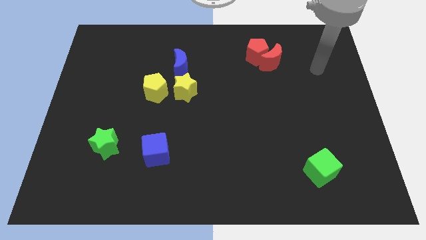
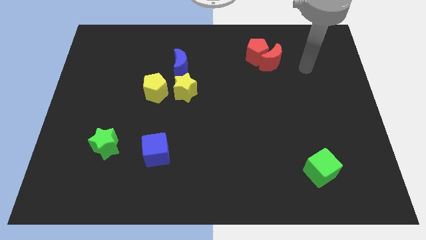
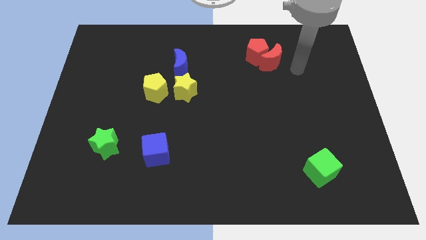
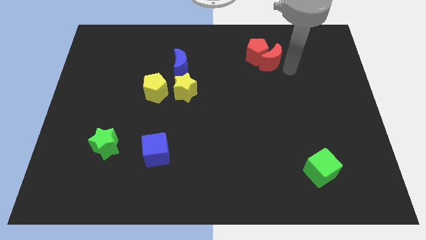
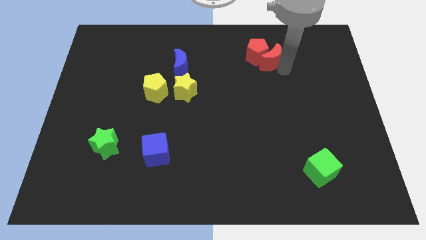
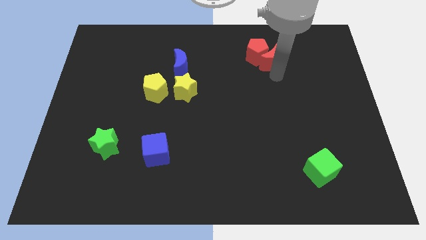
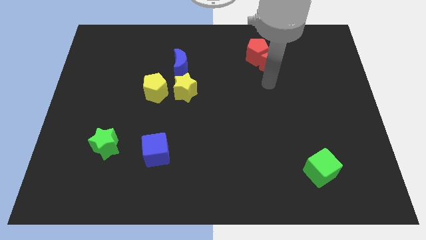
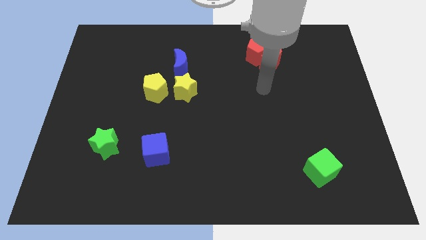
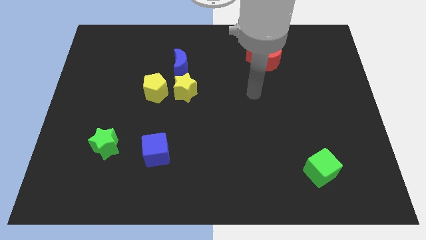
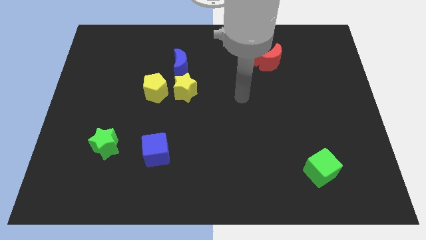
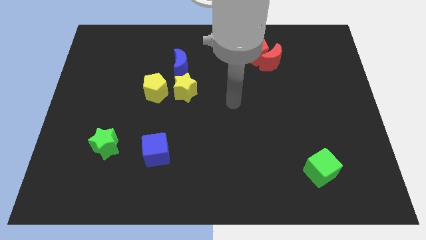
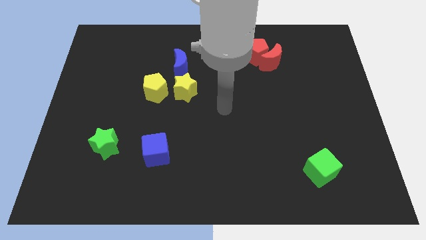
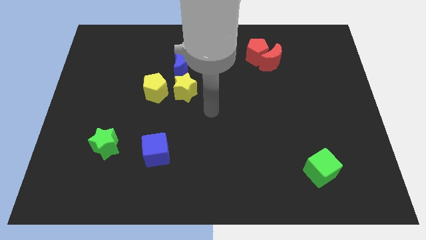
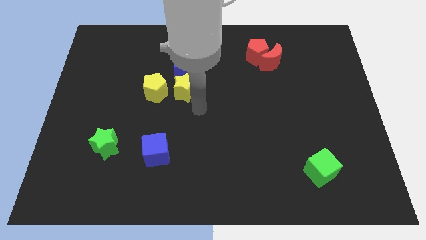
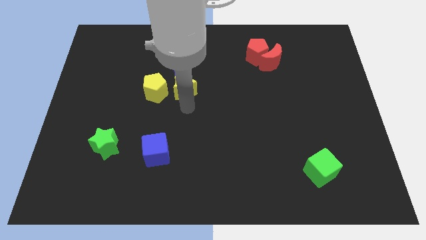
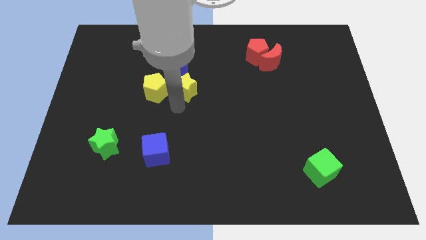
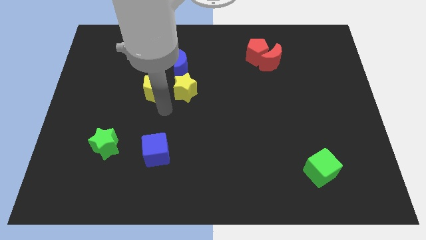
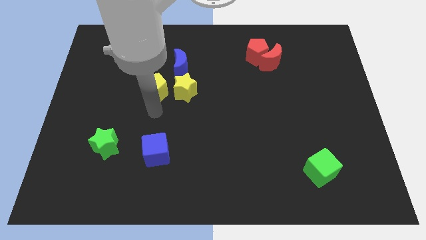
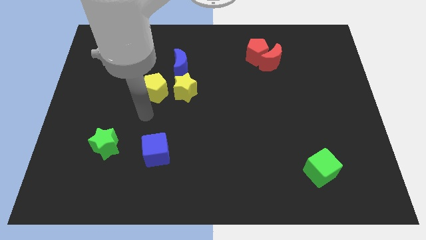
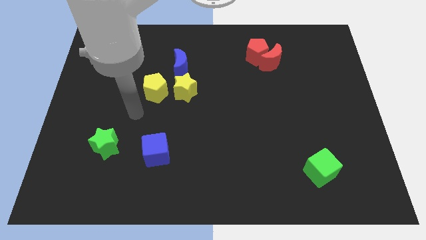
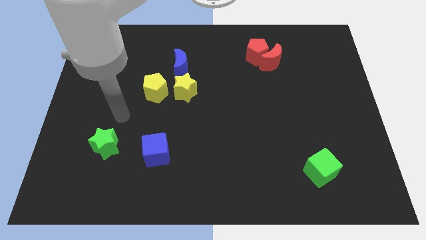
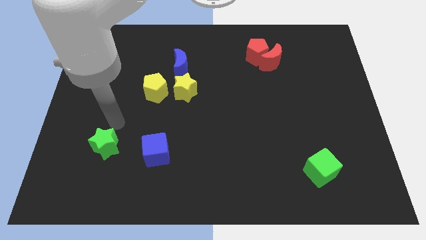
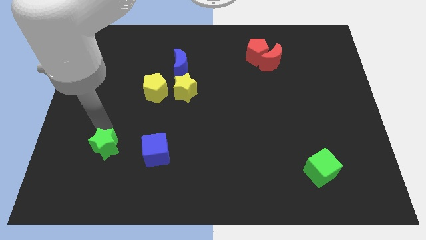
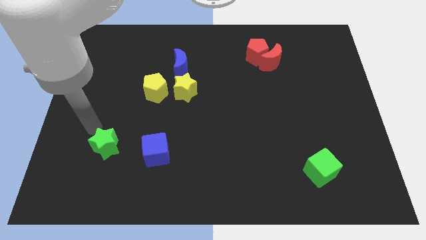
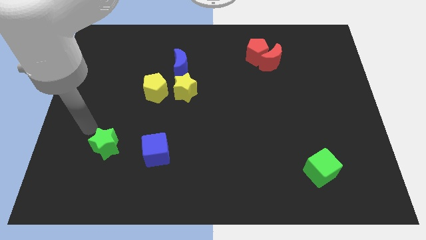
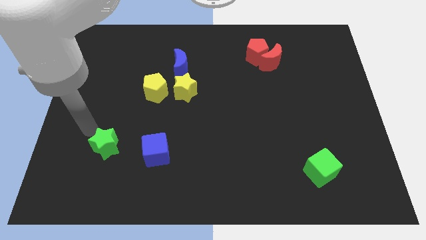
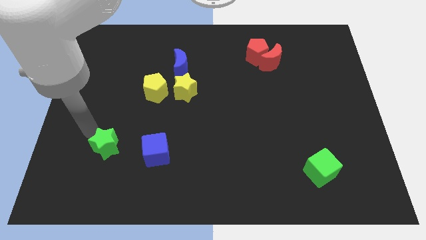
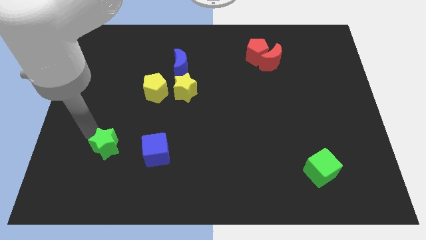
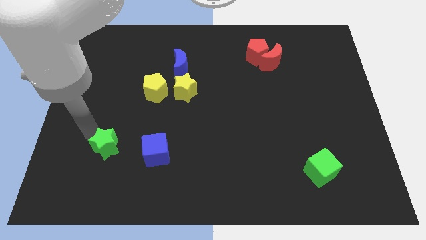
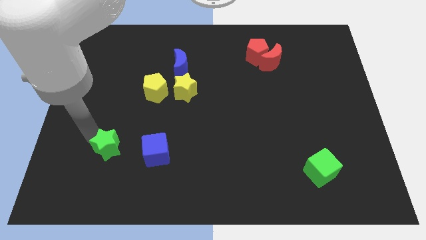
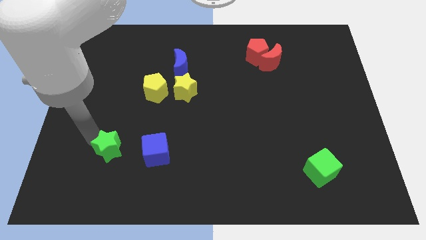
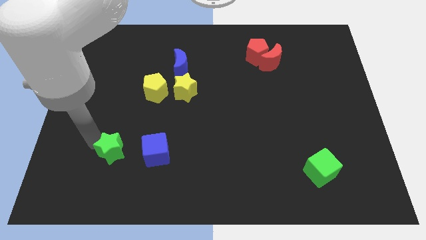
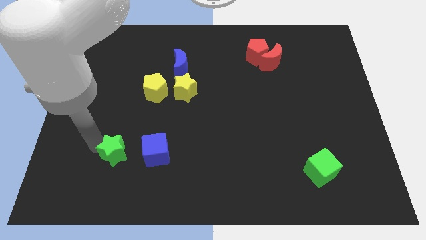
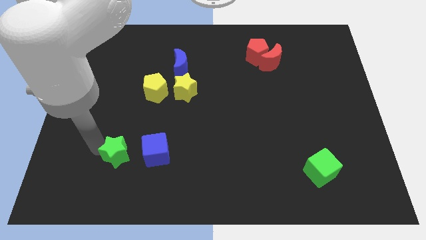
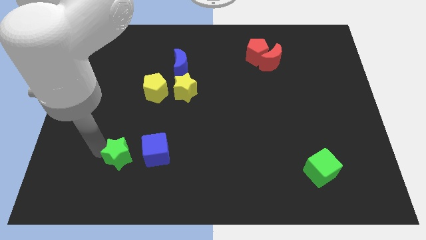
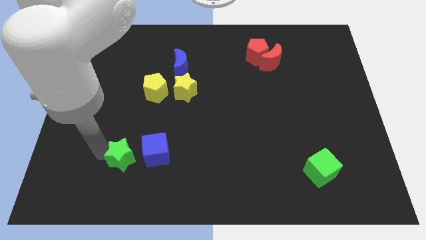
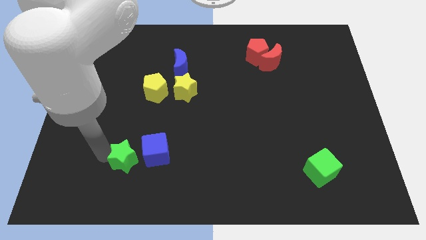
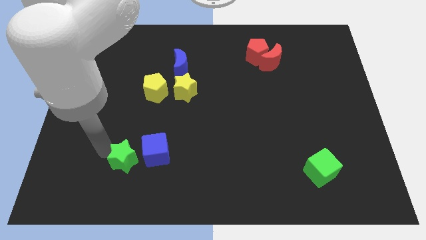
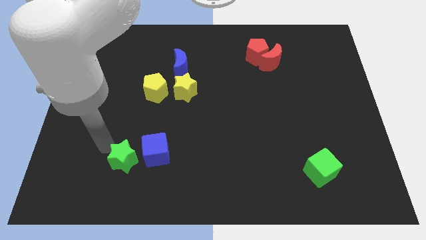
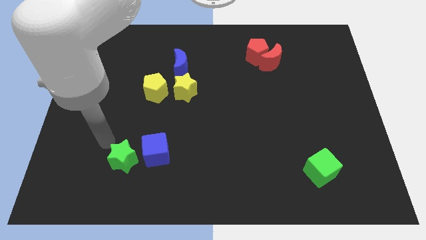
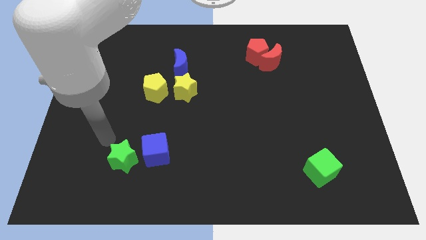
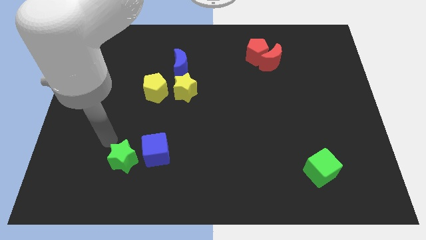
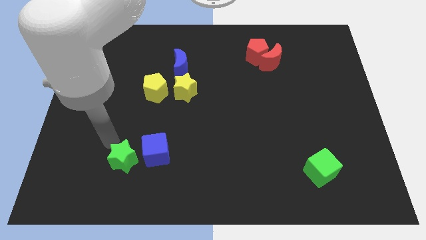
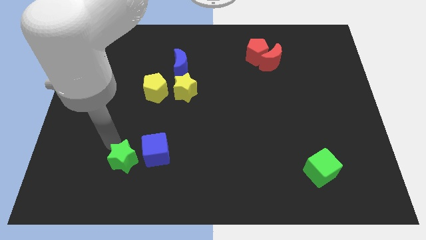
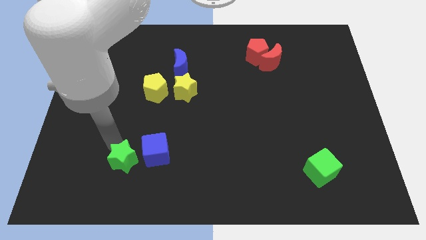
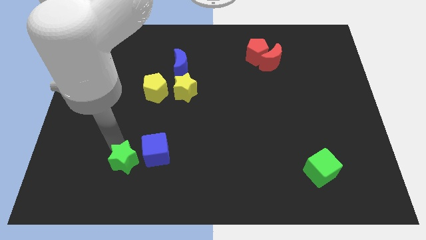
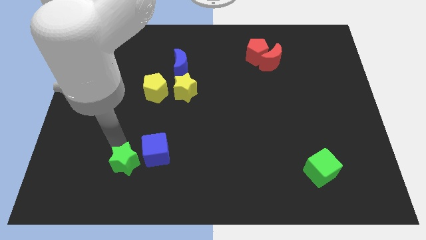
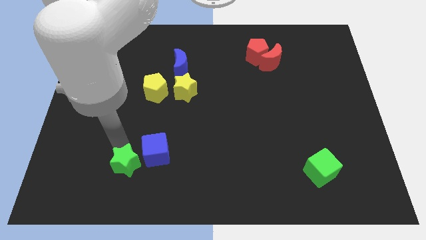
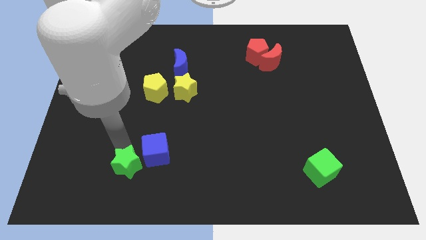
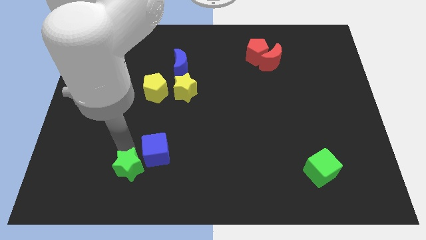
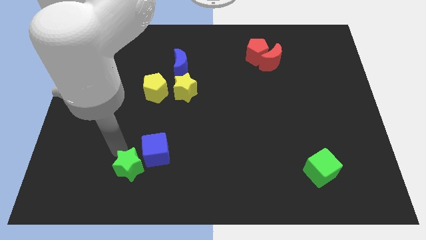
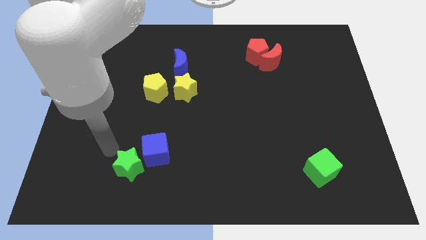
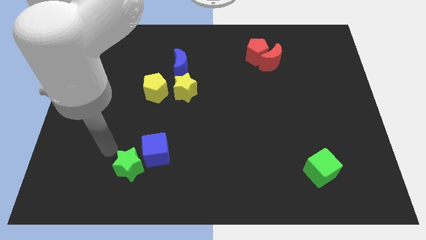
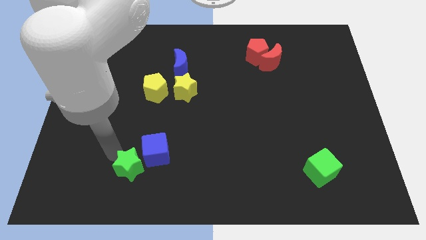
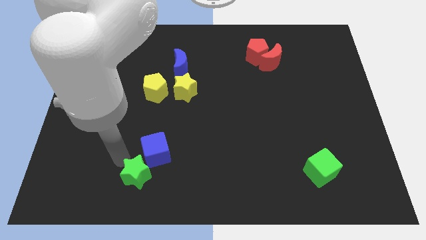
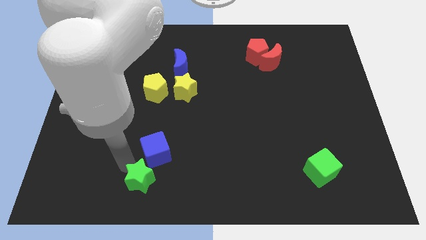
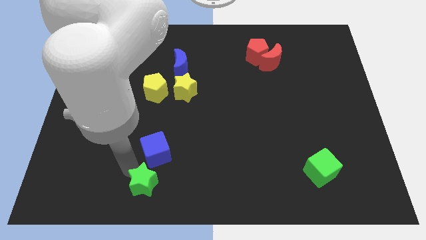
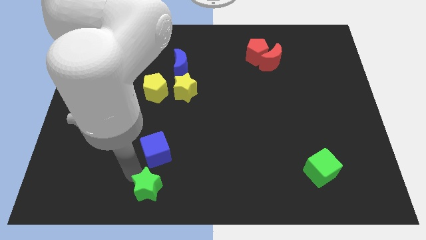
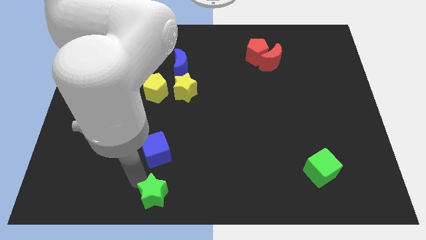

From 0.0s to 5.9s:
push the green star to the bottom side

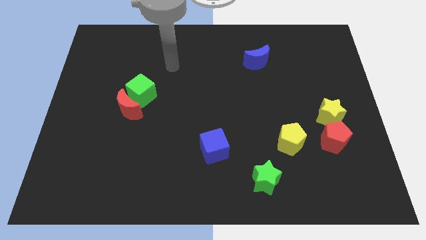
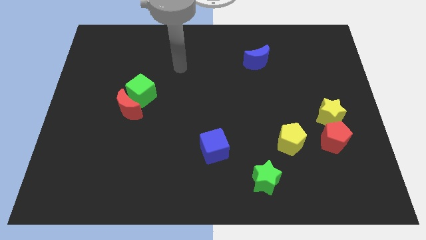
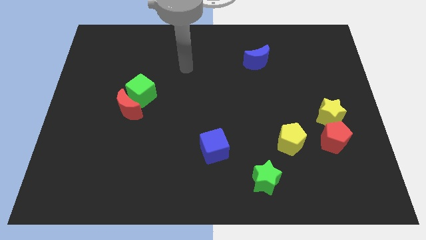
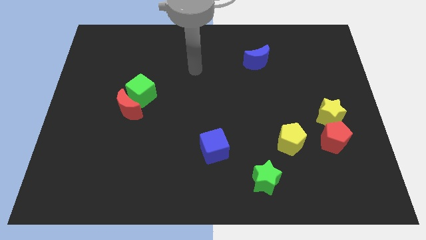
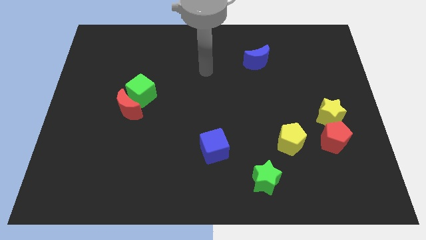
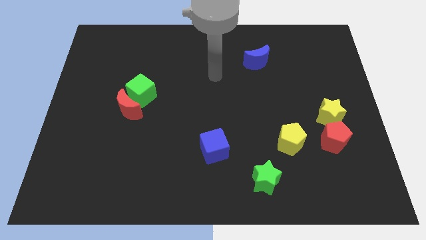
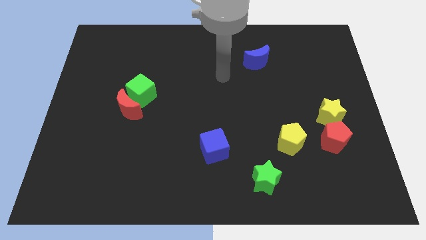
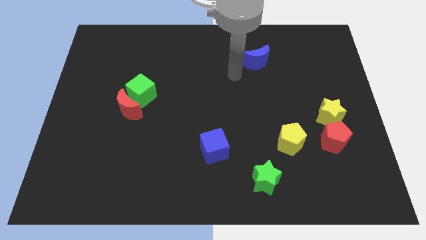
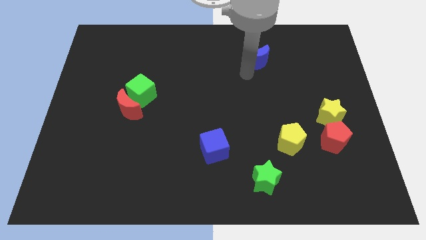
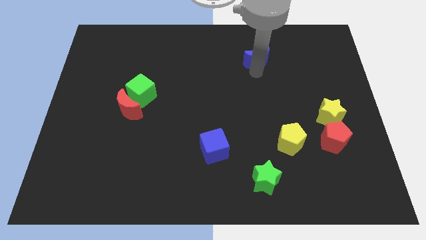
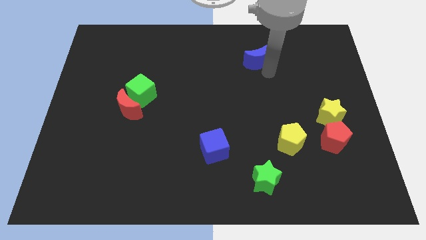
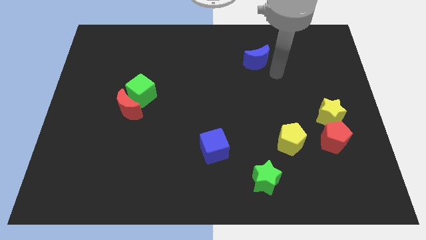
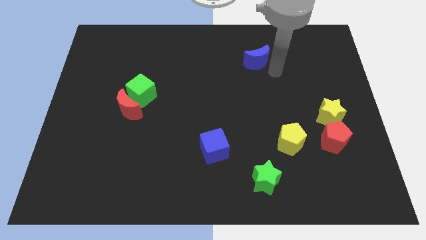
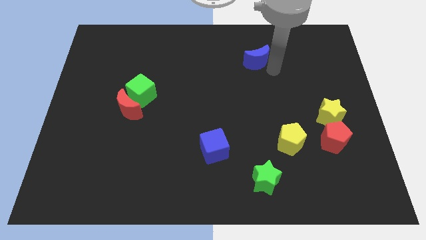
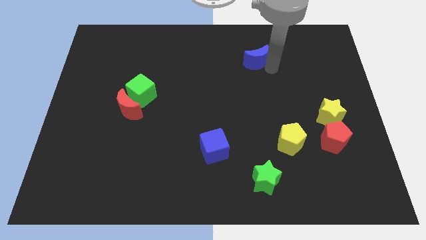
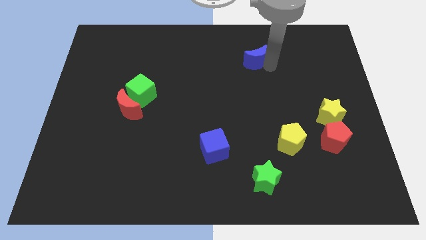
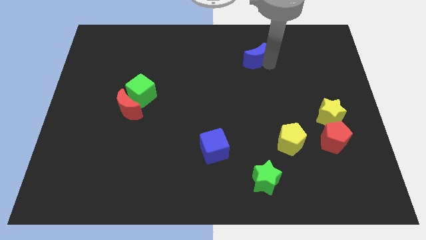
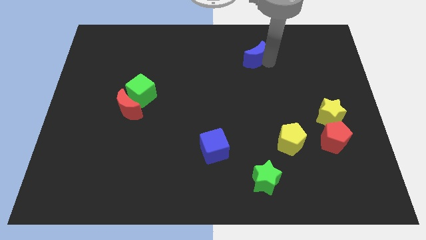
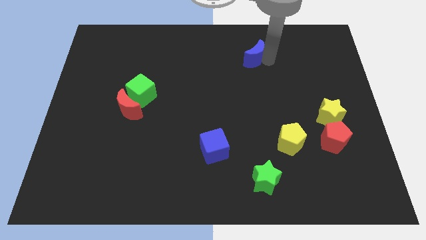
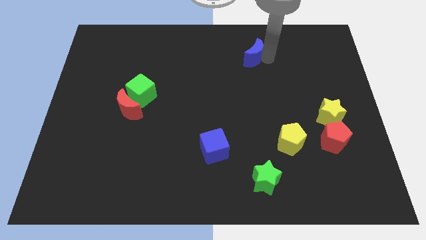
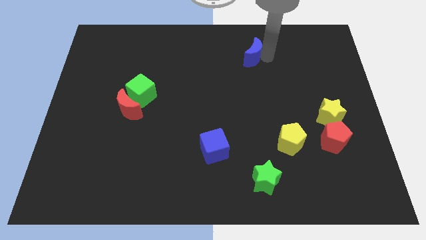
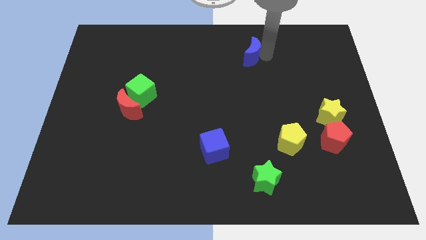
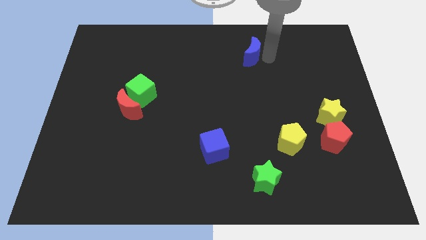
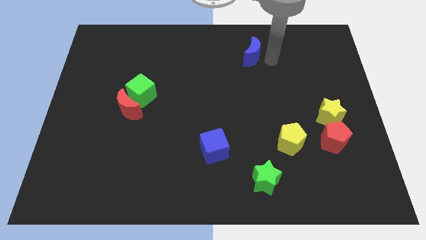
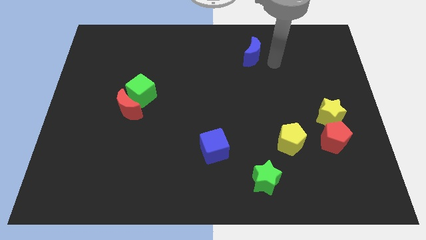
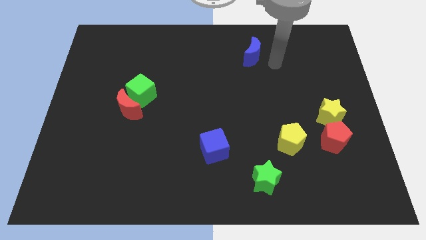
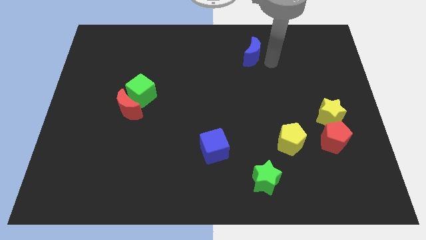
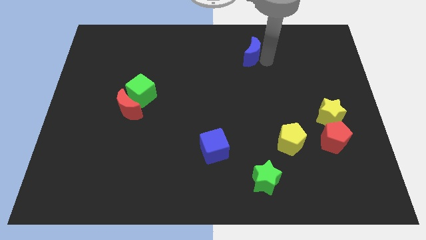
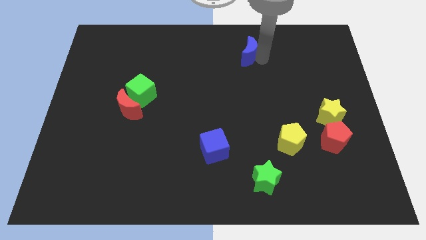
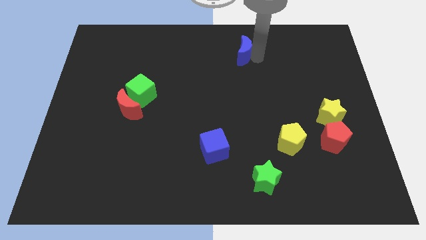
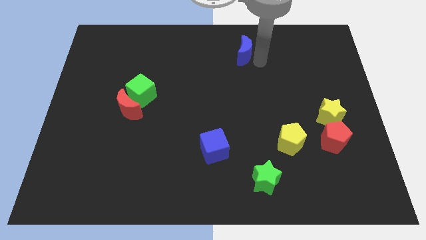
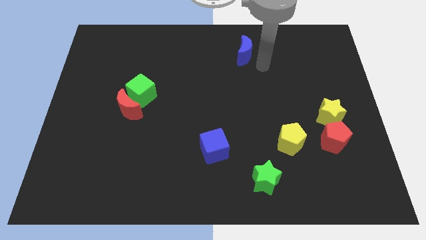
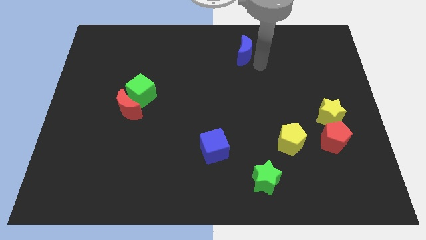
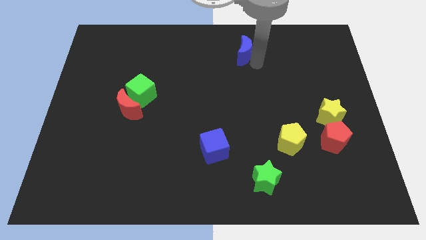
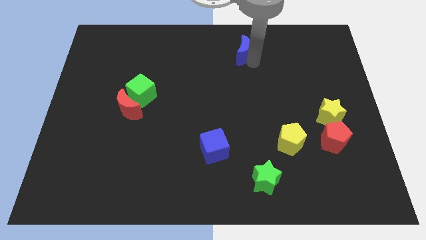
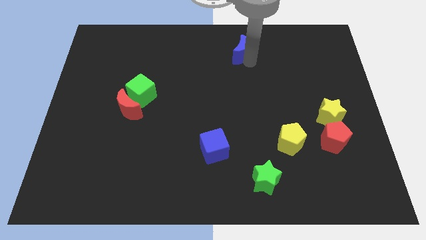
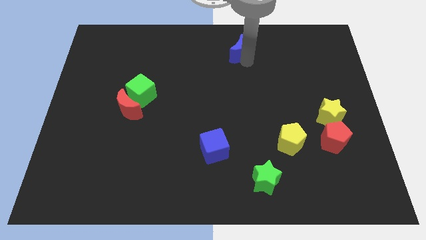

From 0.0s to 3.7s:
put the blue moon to the top side
